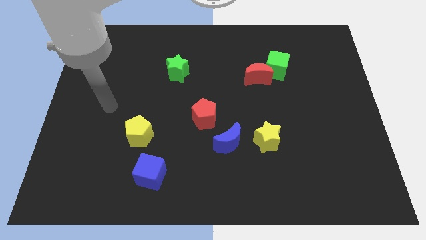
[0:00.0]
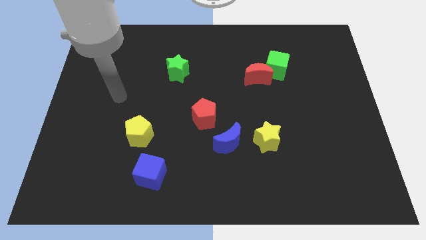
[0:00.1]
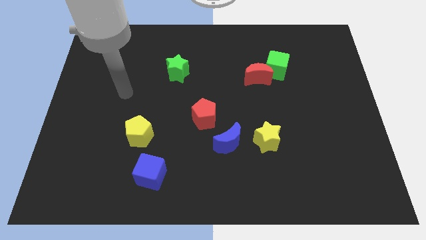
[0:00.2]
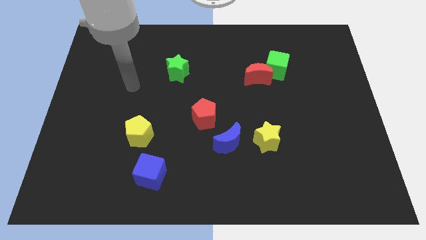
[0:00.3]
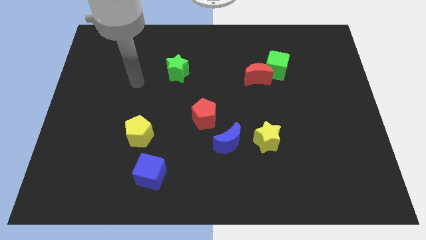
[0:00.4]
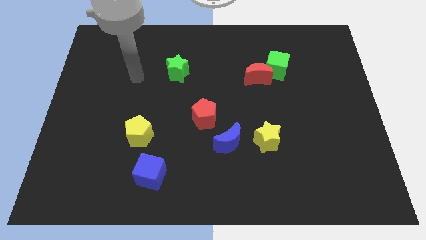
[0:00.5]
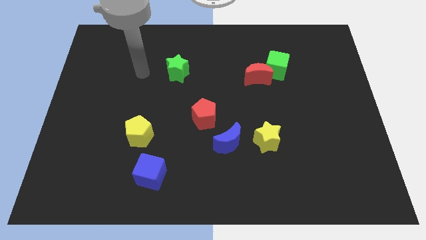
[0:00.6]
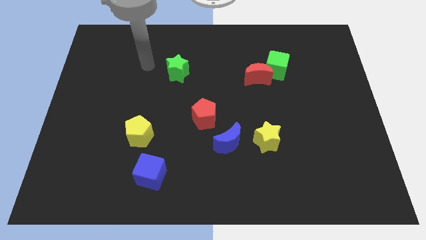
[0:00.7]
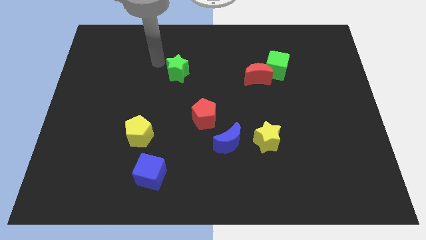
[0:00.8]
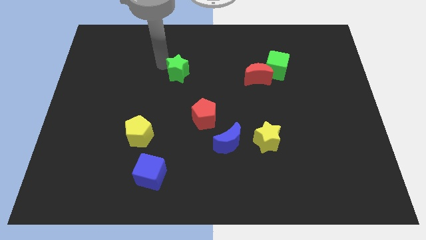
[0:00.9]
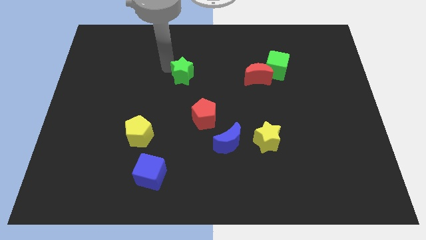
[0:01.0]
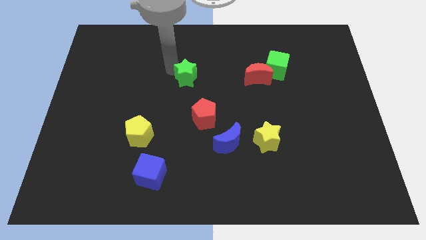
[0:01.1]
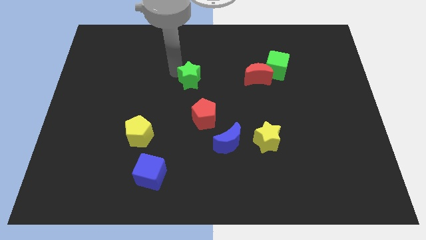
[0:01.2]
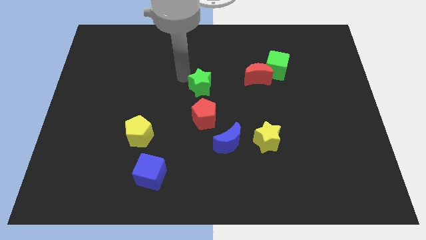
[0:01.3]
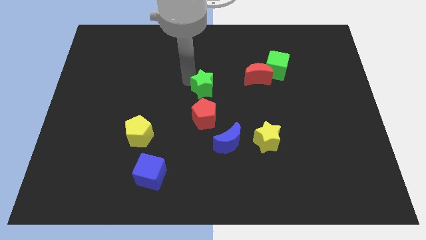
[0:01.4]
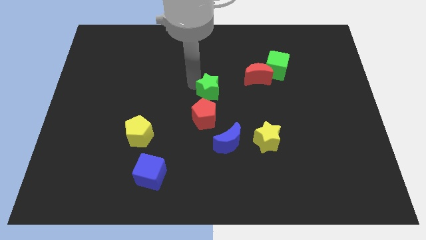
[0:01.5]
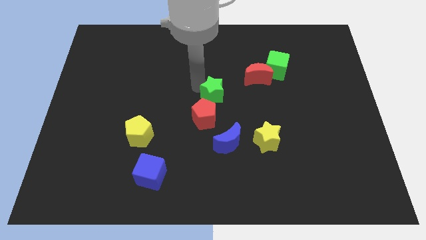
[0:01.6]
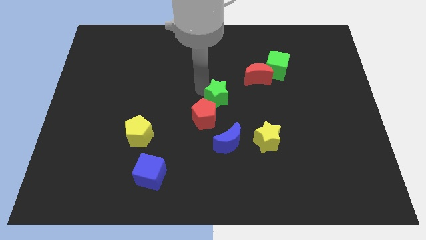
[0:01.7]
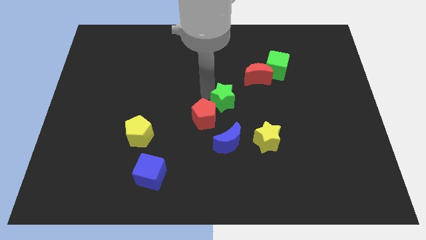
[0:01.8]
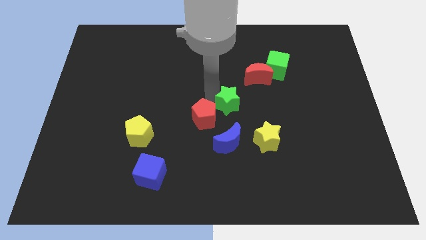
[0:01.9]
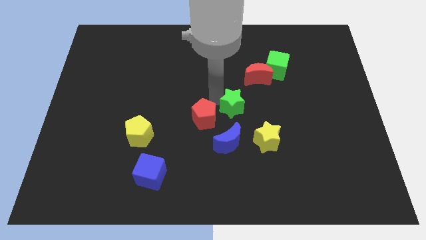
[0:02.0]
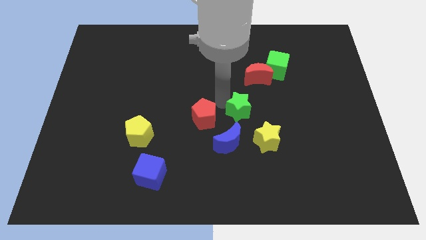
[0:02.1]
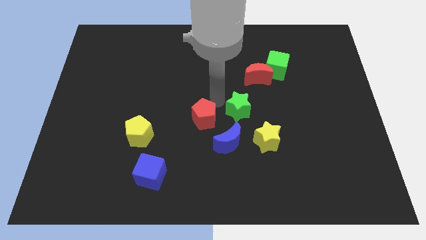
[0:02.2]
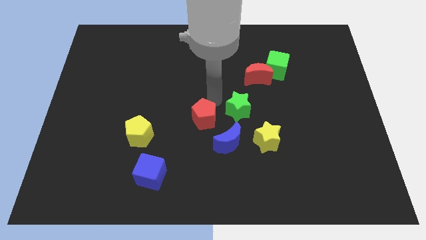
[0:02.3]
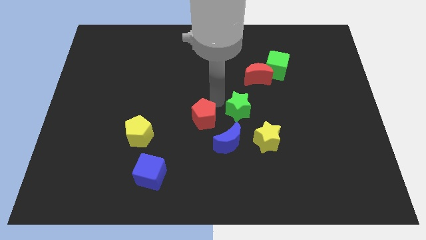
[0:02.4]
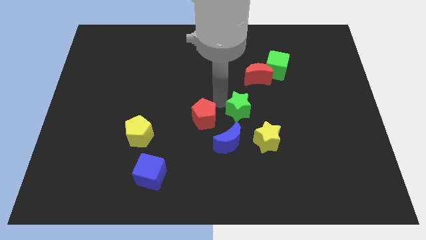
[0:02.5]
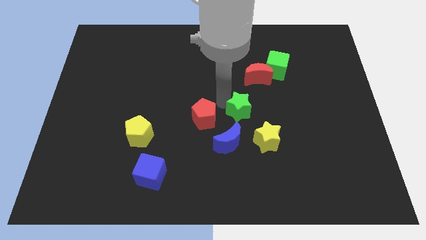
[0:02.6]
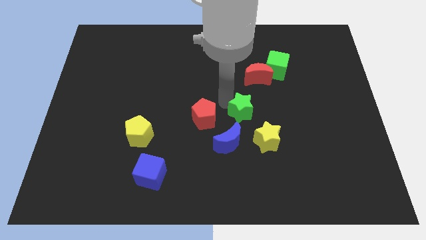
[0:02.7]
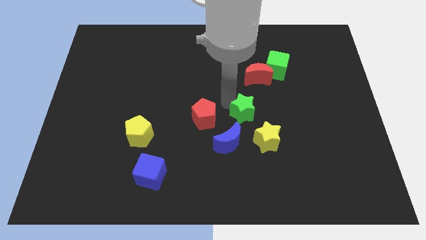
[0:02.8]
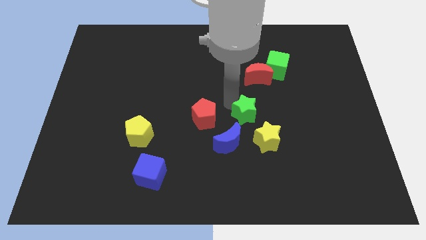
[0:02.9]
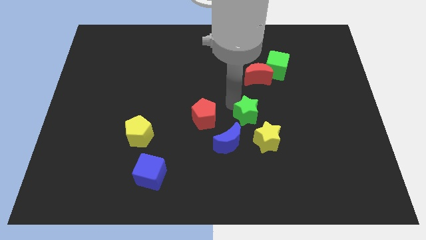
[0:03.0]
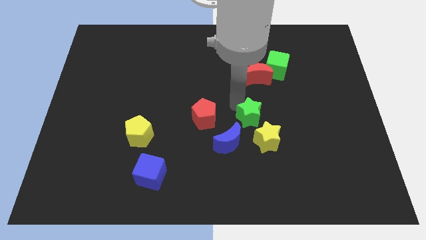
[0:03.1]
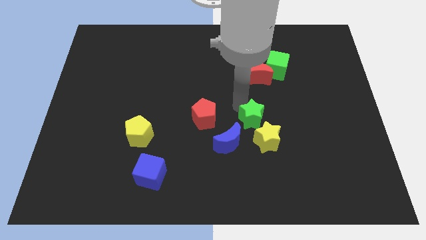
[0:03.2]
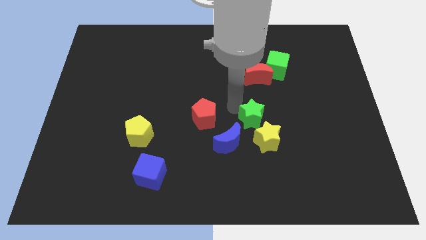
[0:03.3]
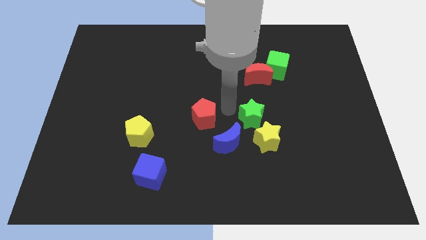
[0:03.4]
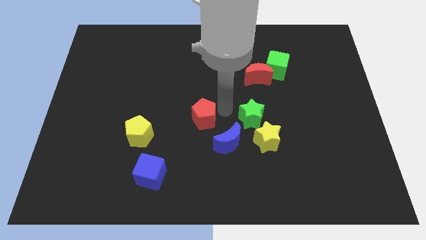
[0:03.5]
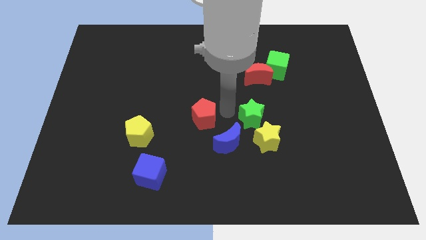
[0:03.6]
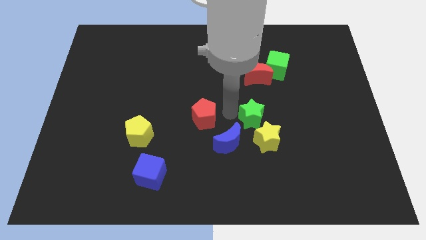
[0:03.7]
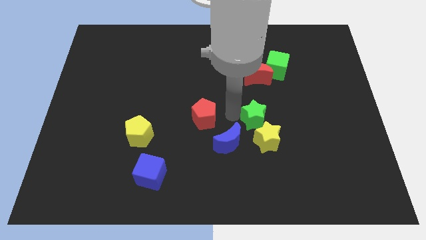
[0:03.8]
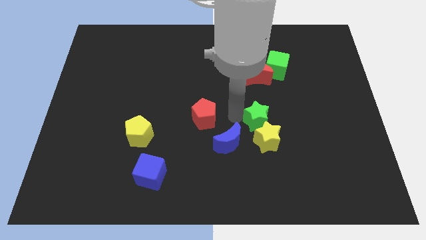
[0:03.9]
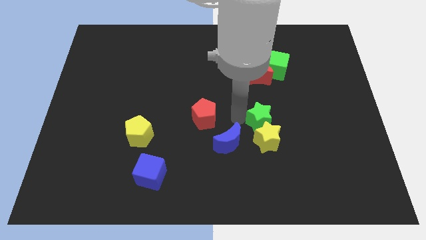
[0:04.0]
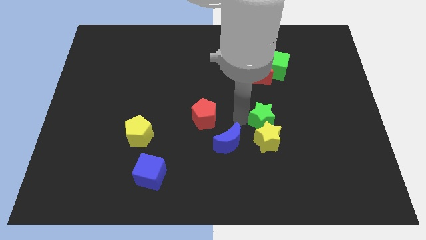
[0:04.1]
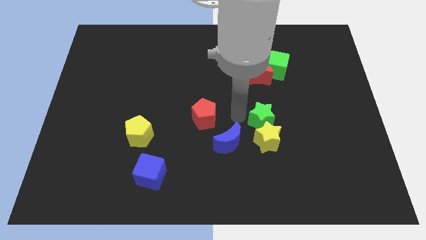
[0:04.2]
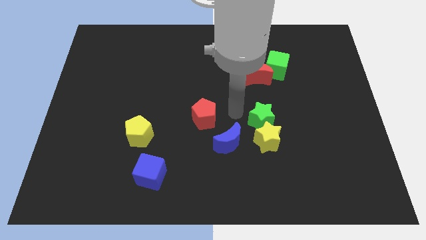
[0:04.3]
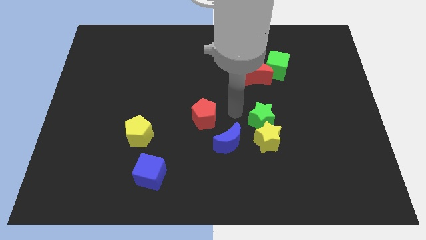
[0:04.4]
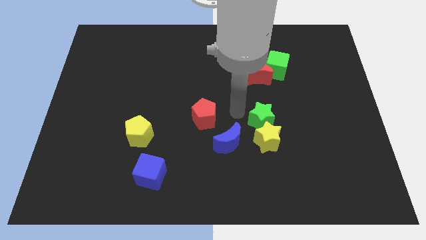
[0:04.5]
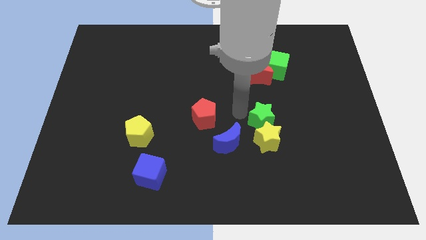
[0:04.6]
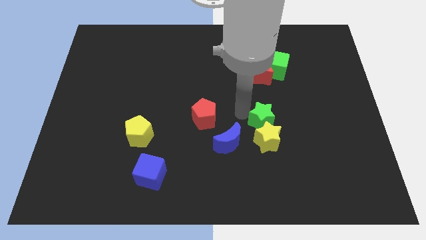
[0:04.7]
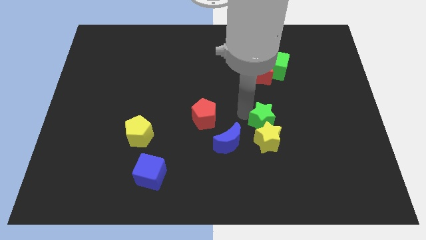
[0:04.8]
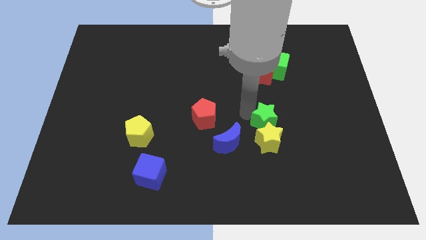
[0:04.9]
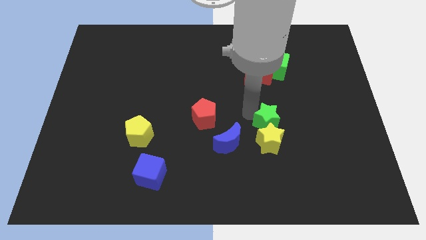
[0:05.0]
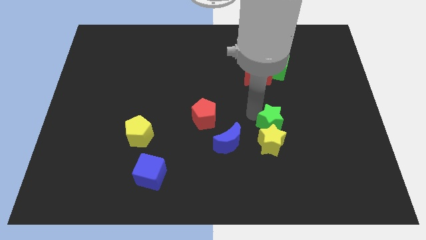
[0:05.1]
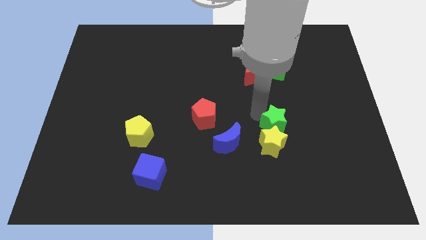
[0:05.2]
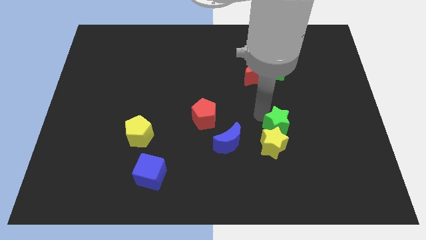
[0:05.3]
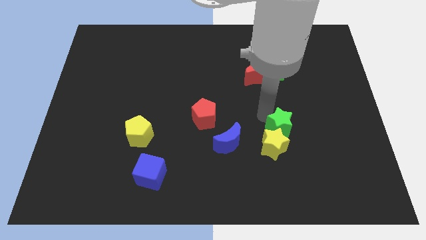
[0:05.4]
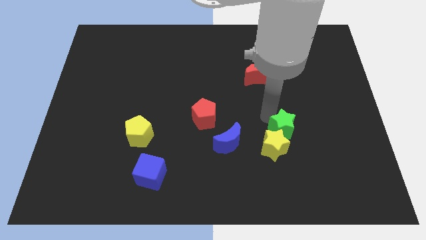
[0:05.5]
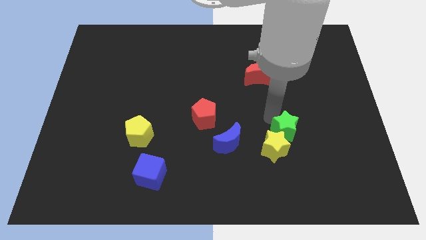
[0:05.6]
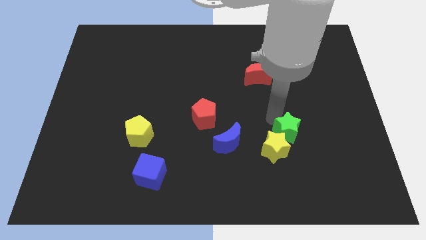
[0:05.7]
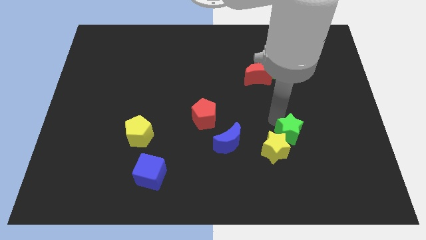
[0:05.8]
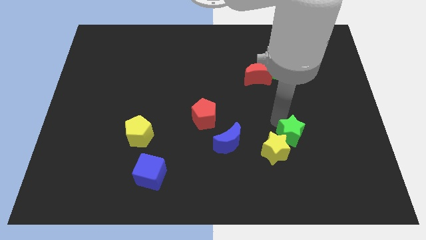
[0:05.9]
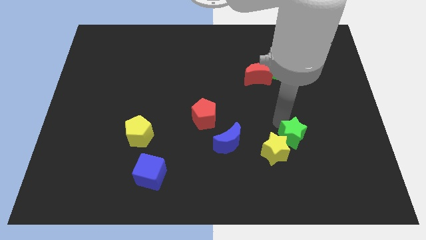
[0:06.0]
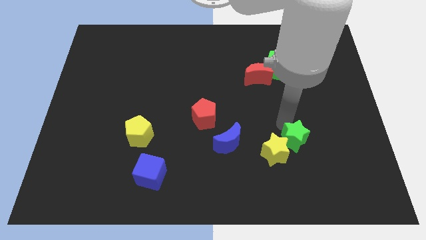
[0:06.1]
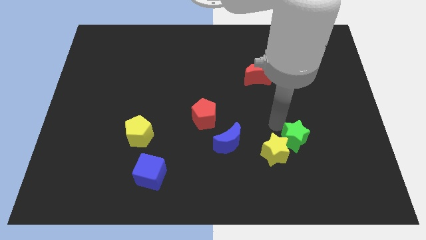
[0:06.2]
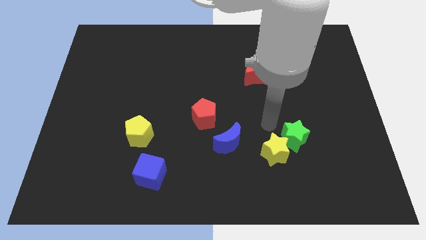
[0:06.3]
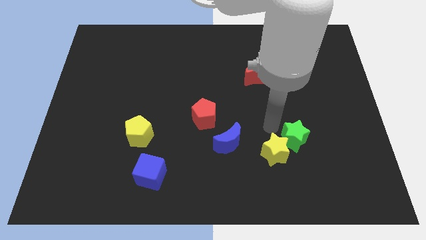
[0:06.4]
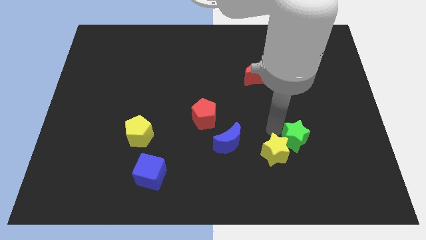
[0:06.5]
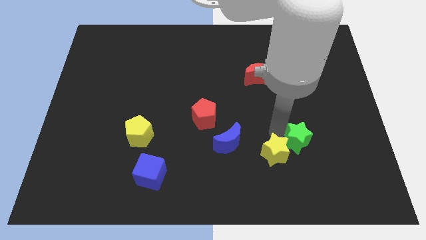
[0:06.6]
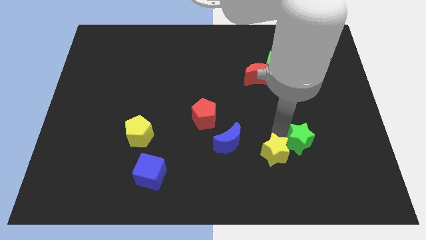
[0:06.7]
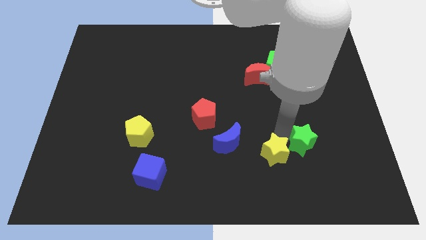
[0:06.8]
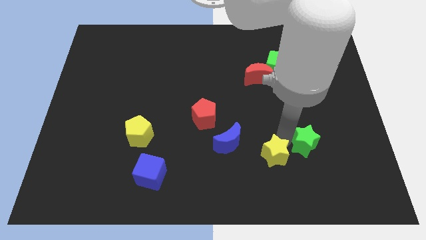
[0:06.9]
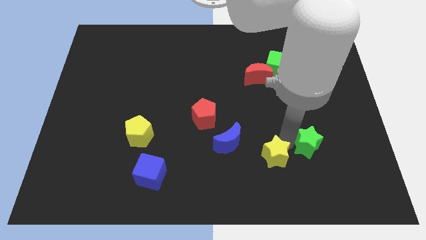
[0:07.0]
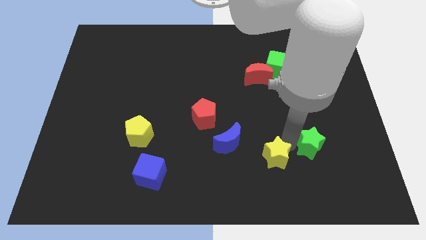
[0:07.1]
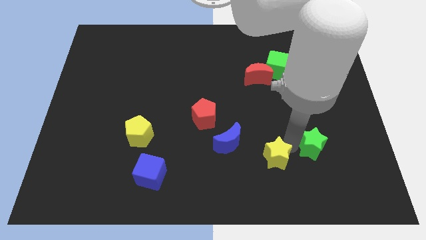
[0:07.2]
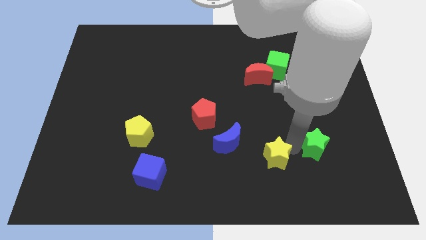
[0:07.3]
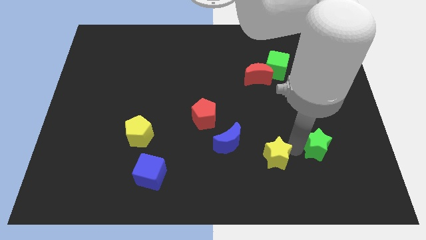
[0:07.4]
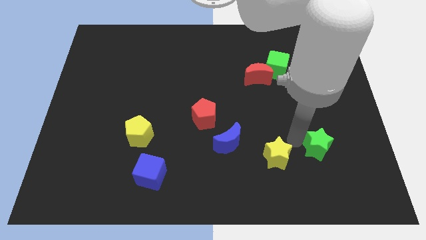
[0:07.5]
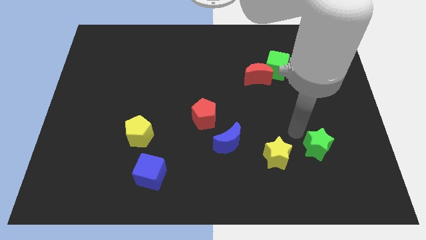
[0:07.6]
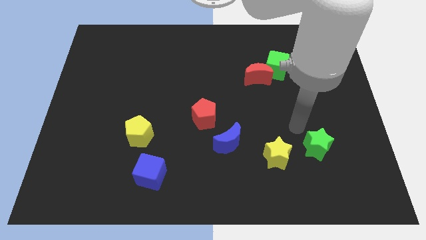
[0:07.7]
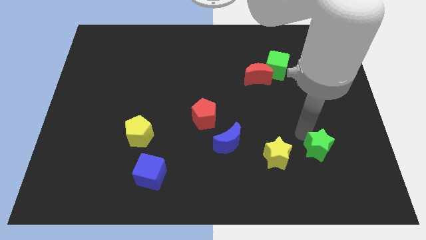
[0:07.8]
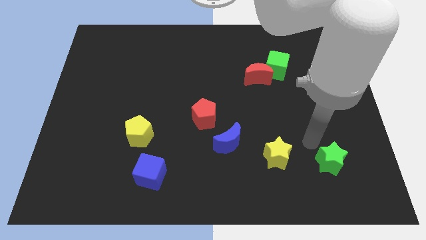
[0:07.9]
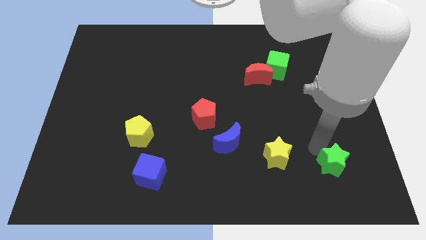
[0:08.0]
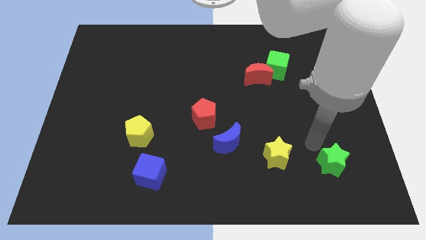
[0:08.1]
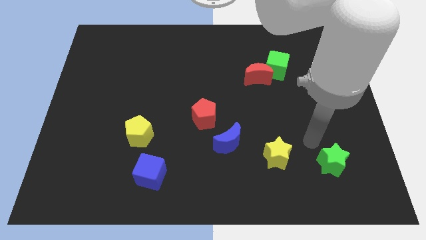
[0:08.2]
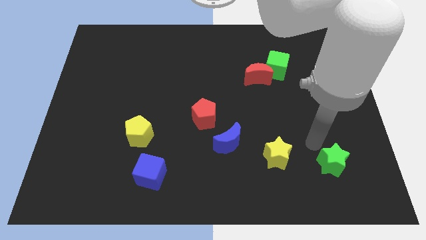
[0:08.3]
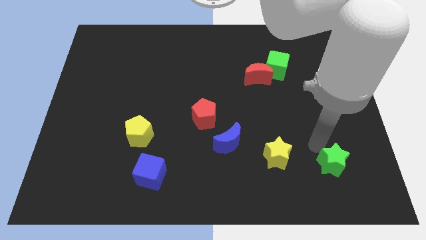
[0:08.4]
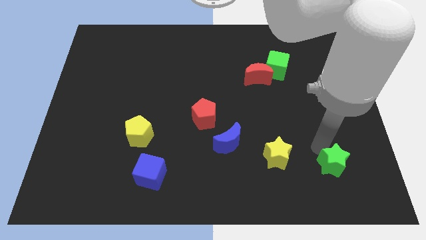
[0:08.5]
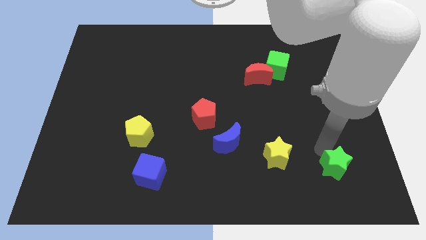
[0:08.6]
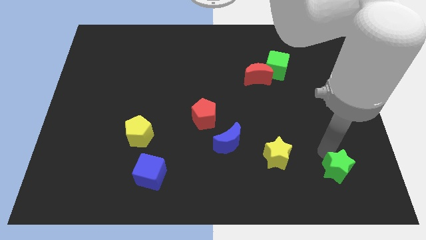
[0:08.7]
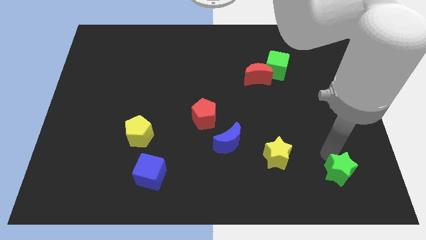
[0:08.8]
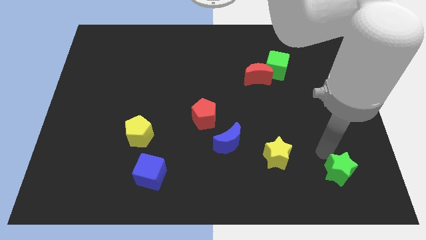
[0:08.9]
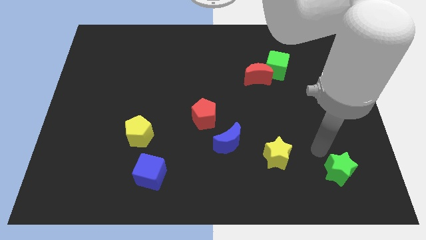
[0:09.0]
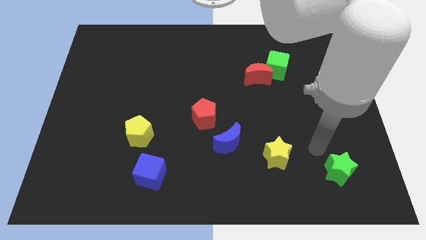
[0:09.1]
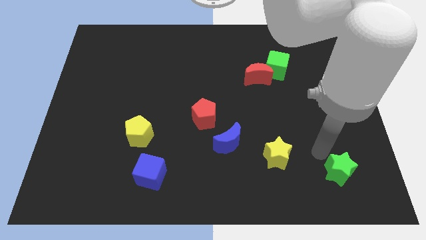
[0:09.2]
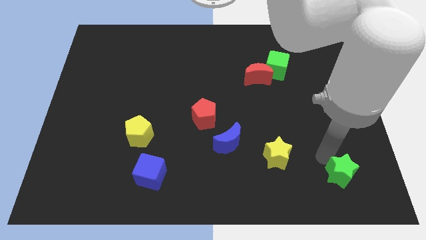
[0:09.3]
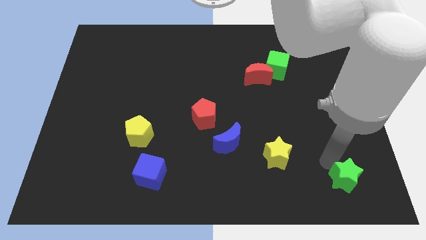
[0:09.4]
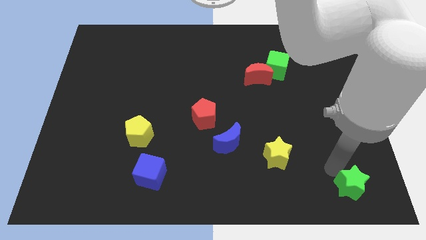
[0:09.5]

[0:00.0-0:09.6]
slide the green star to the bottom right
